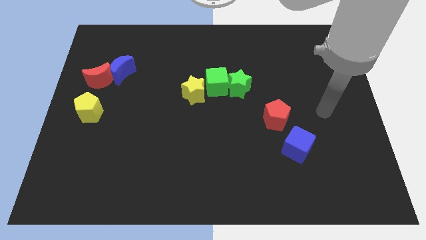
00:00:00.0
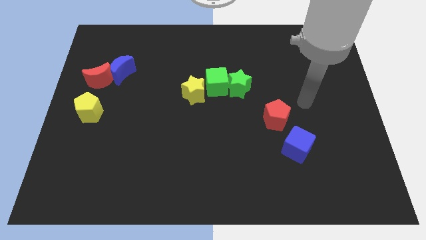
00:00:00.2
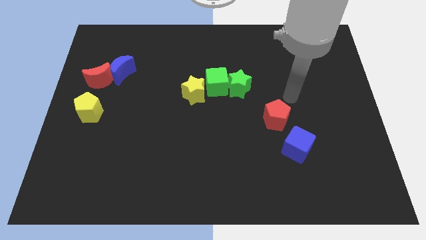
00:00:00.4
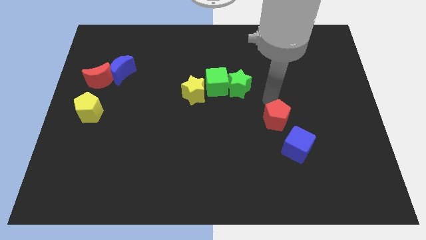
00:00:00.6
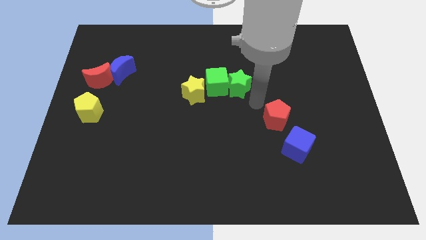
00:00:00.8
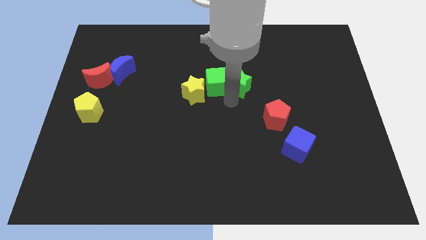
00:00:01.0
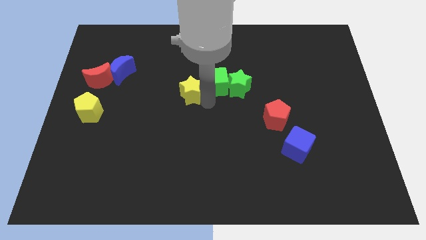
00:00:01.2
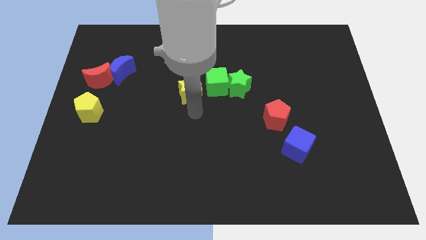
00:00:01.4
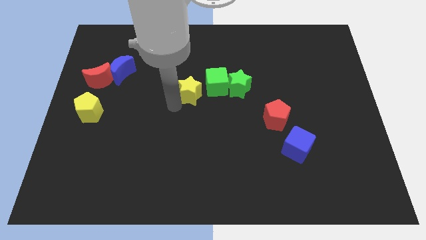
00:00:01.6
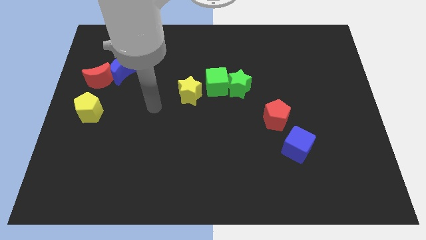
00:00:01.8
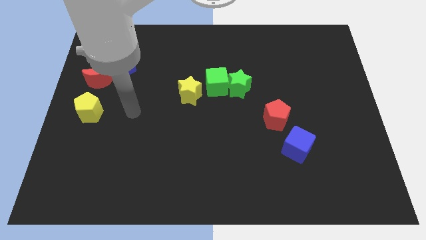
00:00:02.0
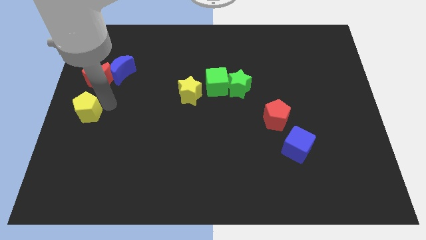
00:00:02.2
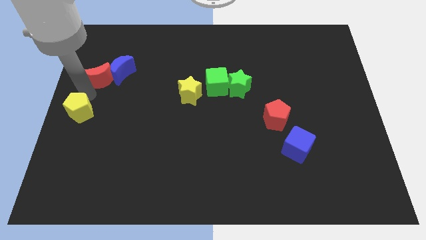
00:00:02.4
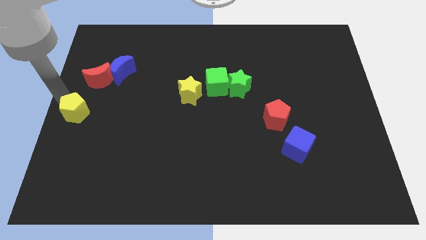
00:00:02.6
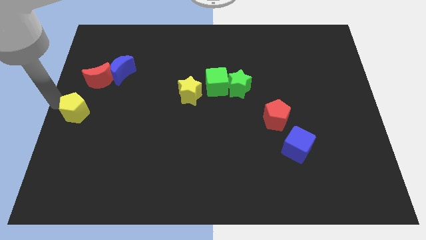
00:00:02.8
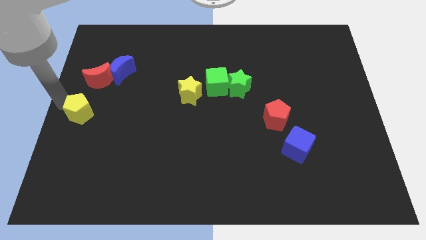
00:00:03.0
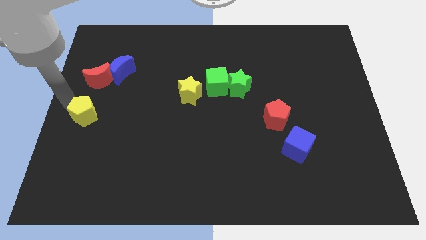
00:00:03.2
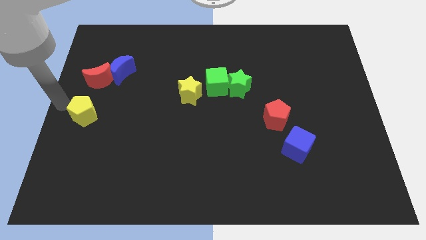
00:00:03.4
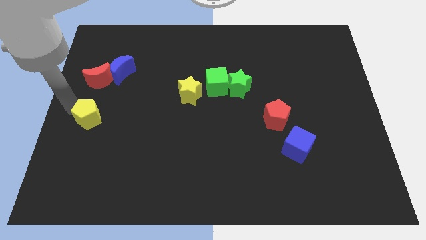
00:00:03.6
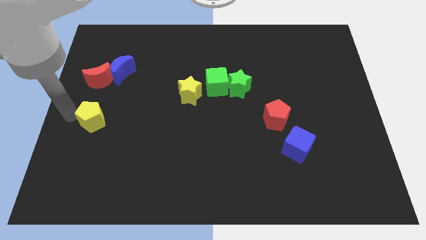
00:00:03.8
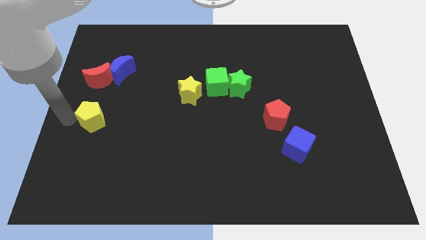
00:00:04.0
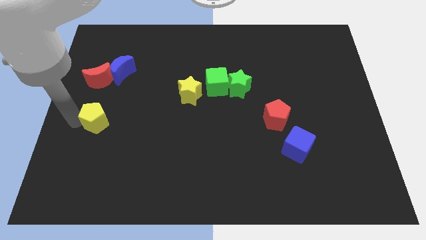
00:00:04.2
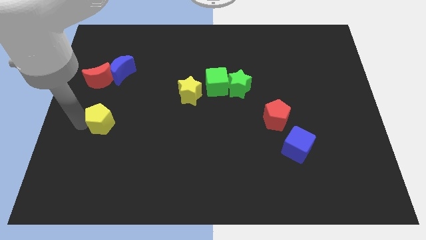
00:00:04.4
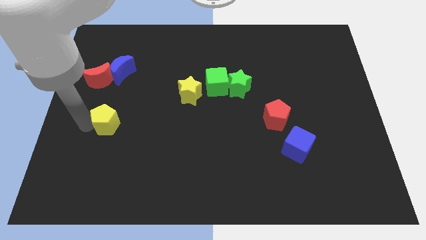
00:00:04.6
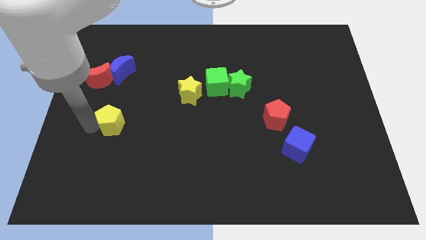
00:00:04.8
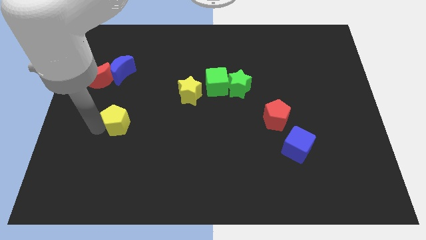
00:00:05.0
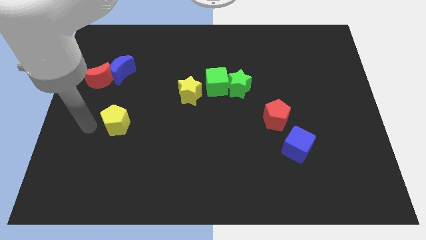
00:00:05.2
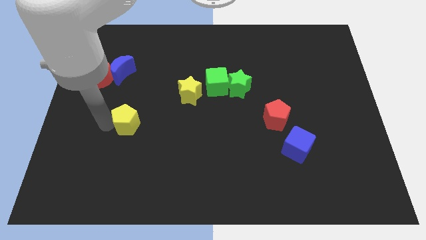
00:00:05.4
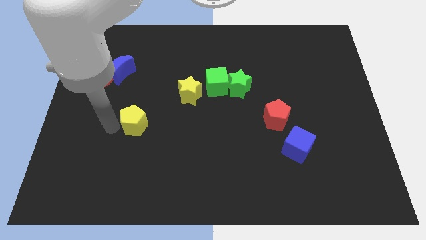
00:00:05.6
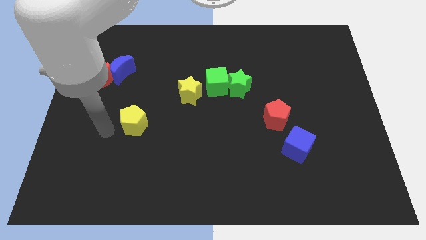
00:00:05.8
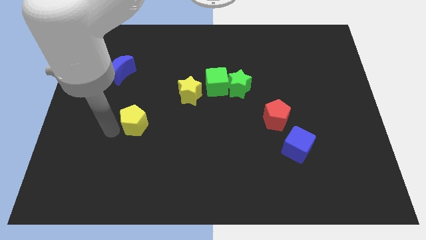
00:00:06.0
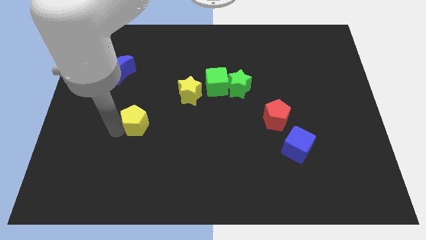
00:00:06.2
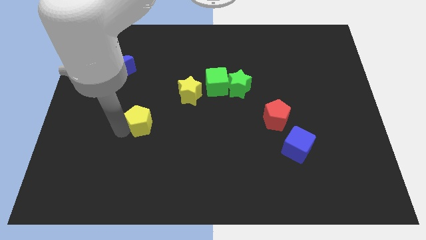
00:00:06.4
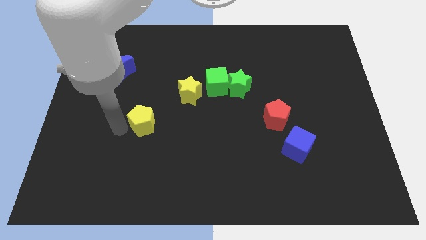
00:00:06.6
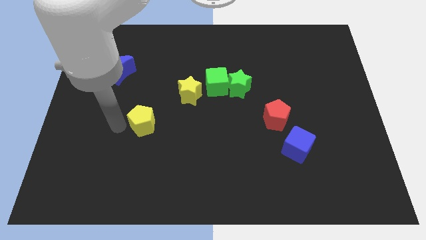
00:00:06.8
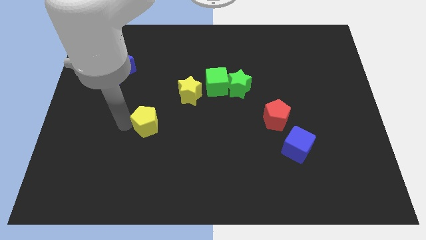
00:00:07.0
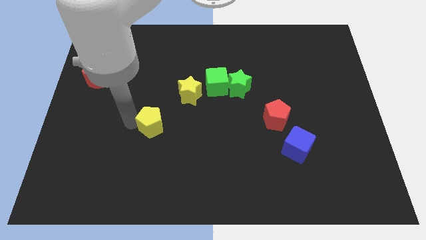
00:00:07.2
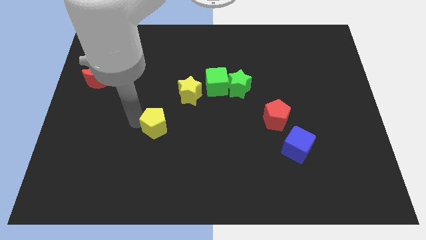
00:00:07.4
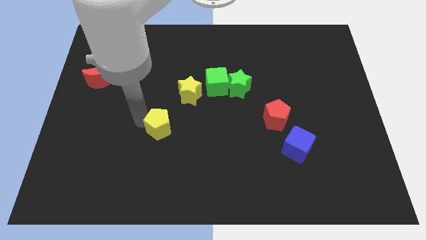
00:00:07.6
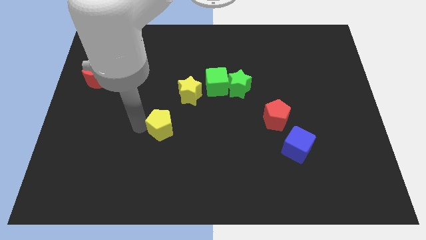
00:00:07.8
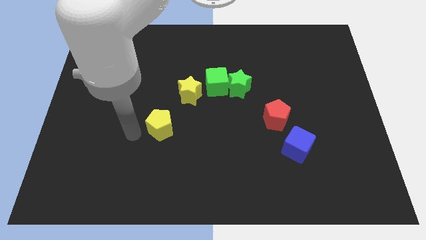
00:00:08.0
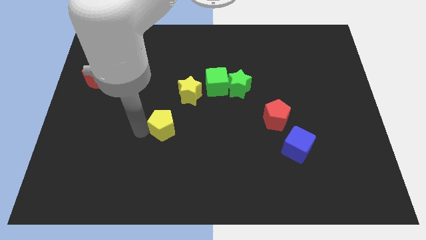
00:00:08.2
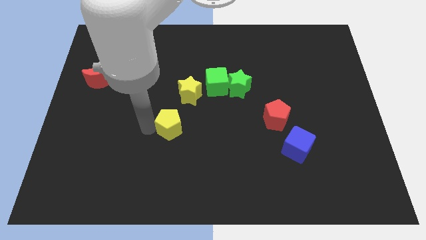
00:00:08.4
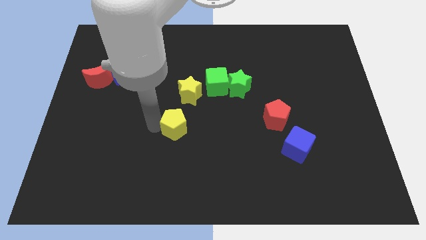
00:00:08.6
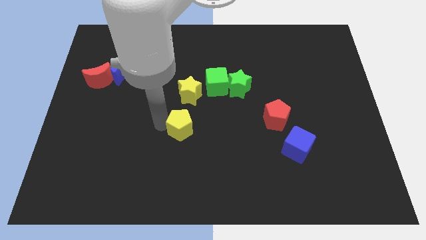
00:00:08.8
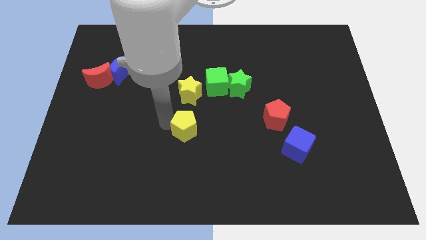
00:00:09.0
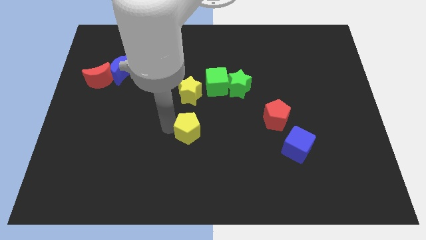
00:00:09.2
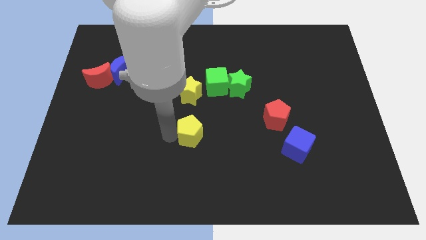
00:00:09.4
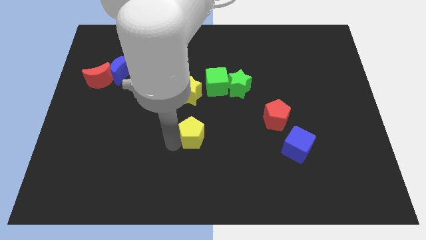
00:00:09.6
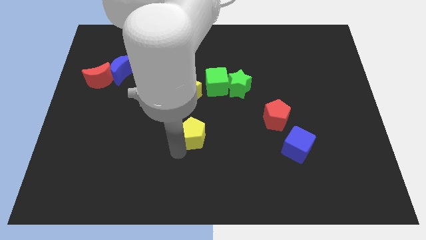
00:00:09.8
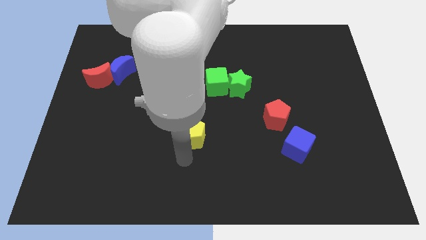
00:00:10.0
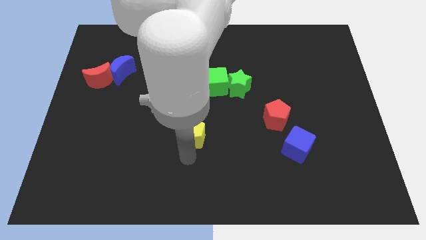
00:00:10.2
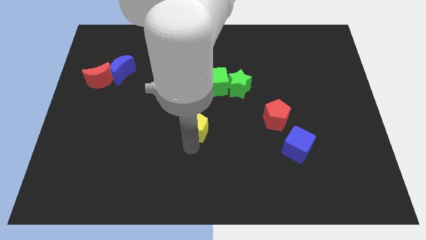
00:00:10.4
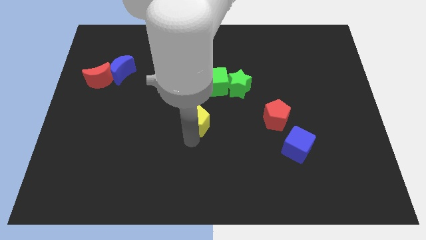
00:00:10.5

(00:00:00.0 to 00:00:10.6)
move the yellow pentagon to the bottom side of the green cube

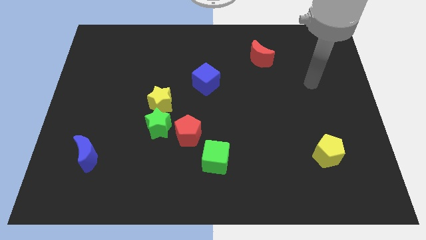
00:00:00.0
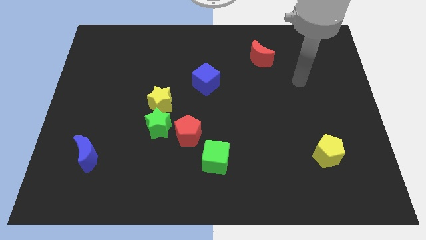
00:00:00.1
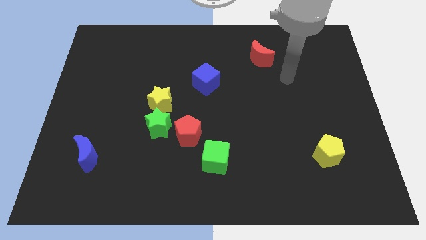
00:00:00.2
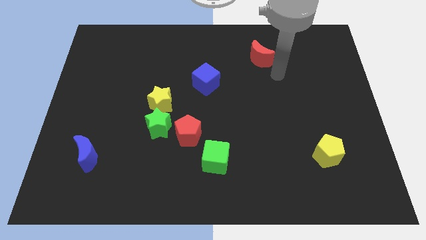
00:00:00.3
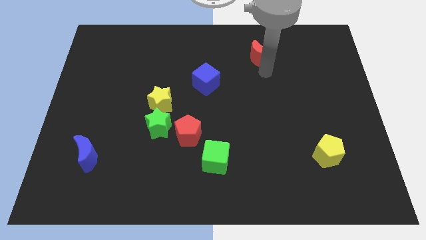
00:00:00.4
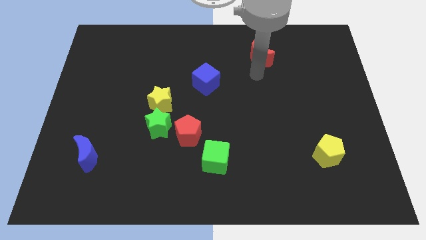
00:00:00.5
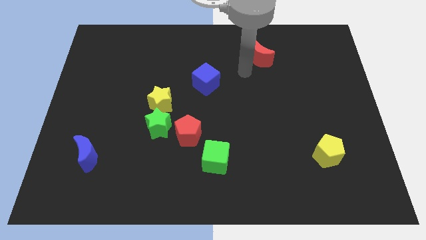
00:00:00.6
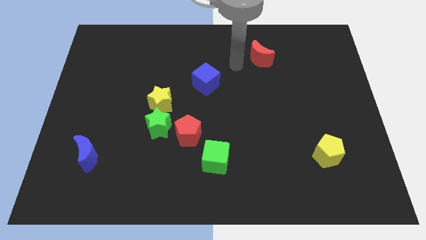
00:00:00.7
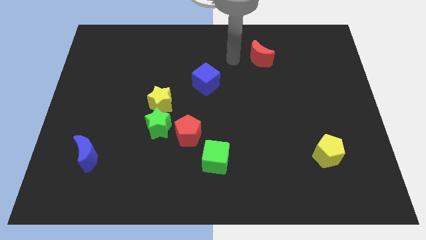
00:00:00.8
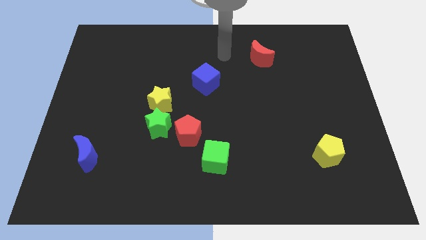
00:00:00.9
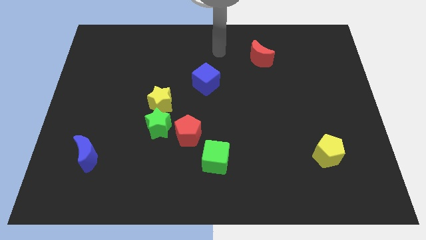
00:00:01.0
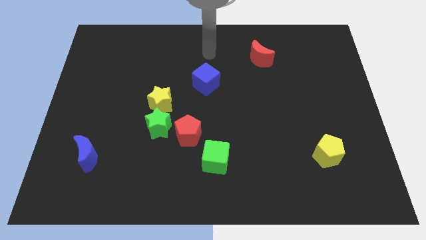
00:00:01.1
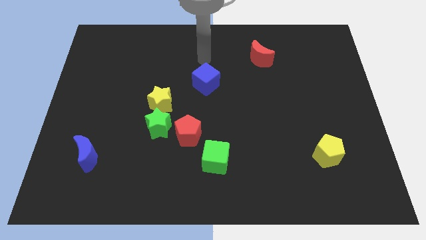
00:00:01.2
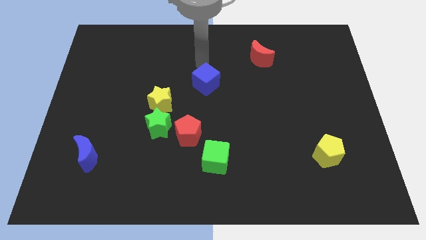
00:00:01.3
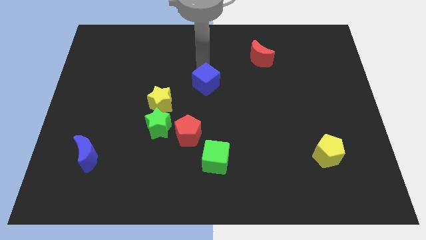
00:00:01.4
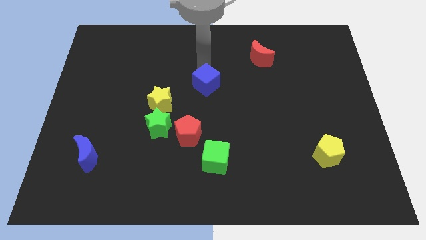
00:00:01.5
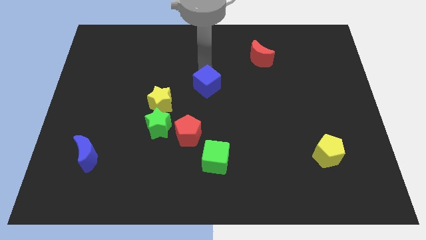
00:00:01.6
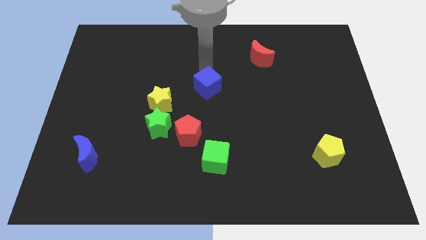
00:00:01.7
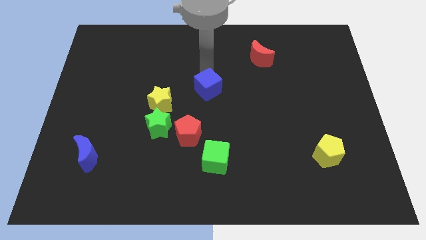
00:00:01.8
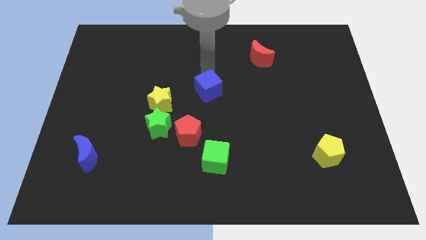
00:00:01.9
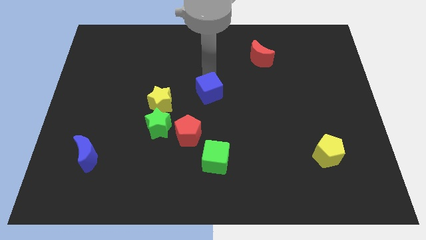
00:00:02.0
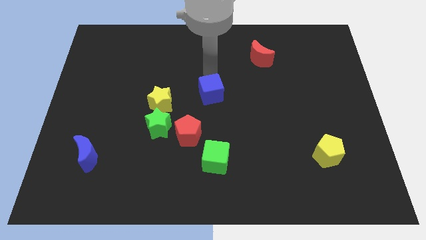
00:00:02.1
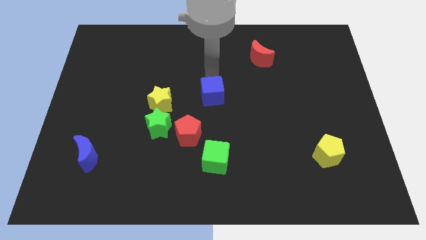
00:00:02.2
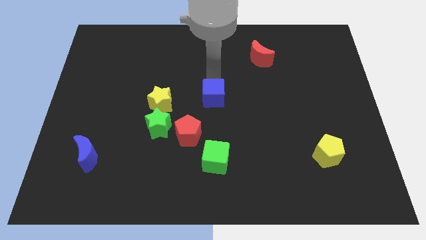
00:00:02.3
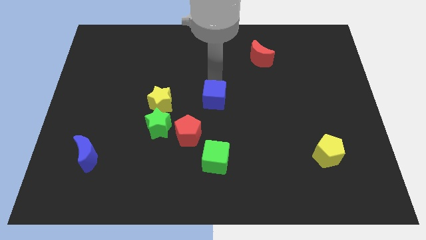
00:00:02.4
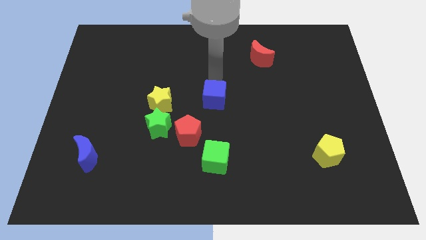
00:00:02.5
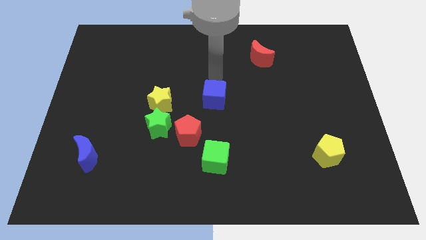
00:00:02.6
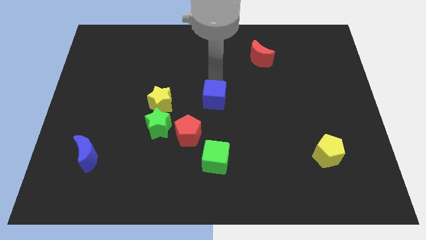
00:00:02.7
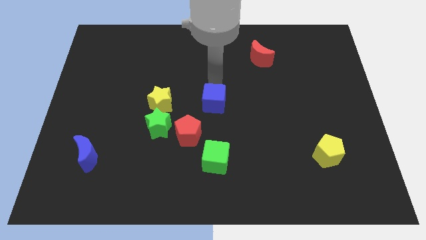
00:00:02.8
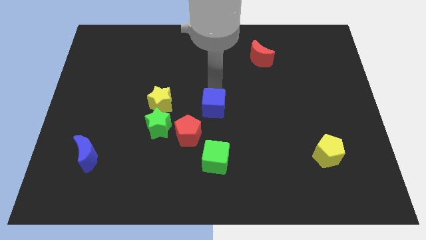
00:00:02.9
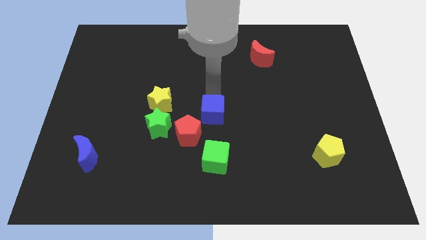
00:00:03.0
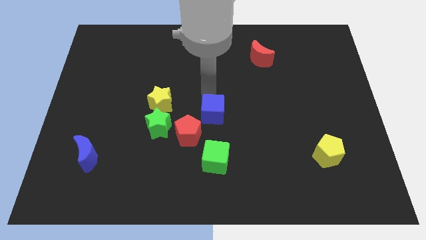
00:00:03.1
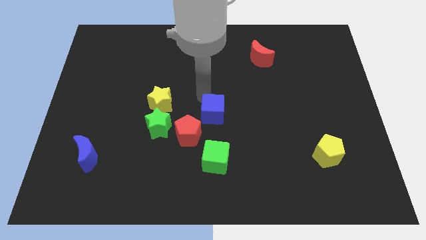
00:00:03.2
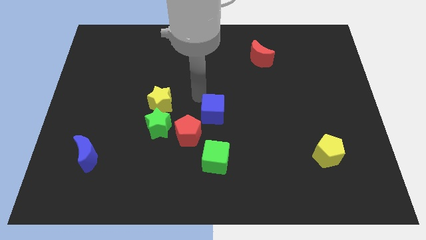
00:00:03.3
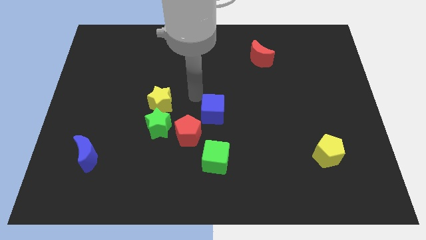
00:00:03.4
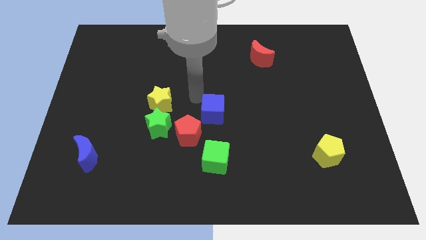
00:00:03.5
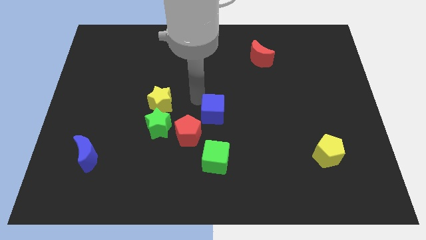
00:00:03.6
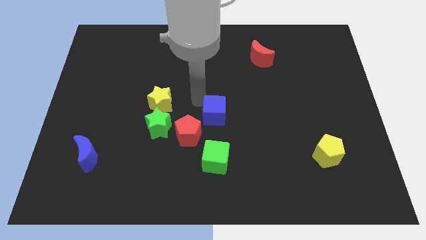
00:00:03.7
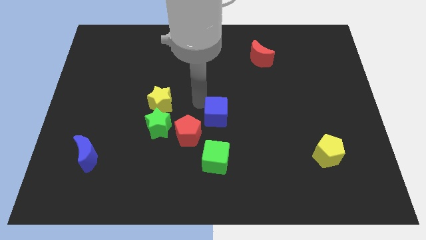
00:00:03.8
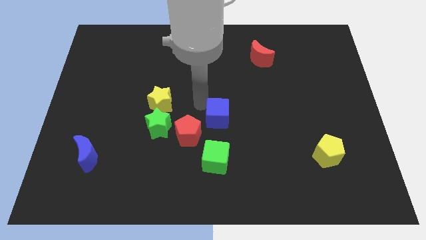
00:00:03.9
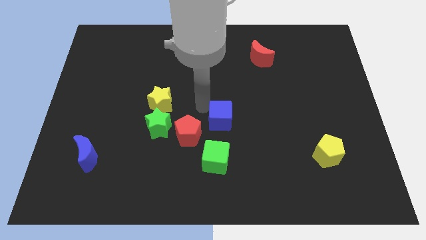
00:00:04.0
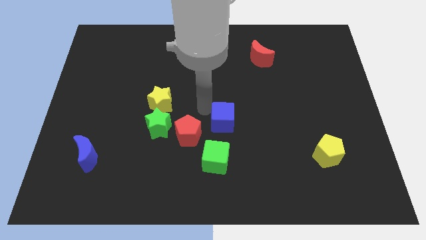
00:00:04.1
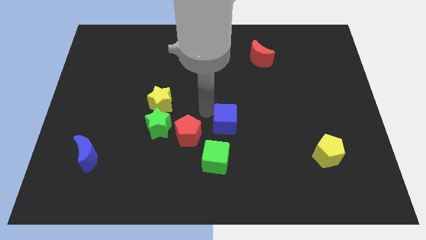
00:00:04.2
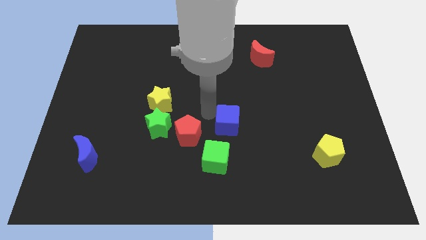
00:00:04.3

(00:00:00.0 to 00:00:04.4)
push the blue cube to the top right side of the green cube
